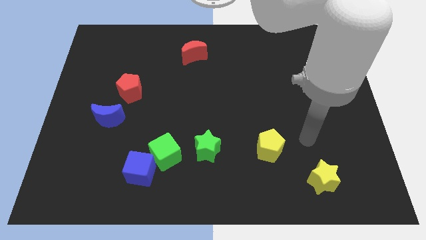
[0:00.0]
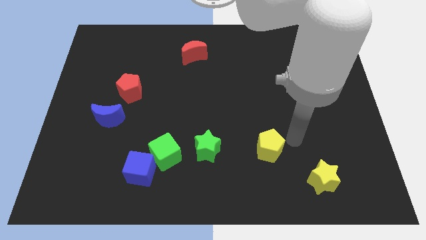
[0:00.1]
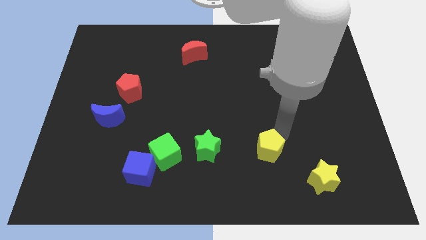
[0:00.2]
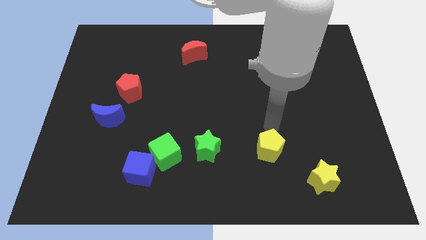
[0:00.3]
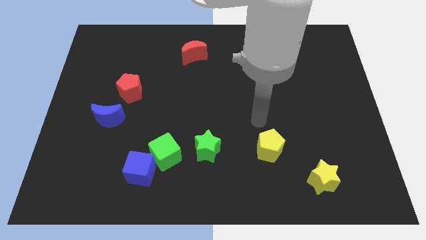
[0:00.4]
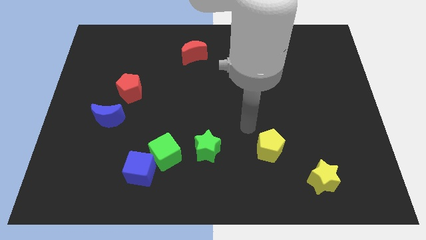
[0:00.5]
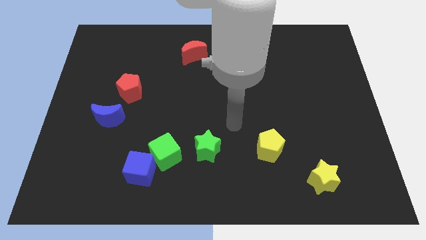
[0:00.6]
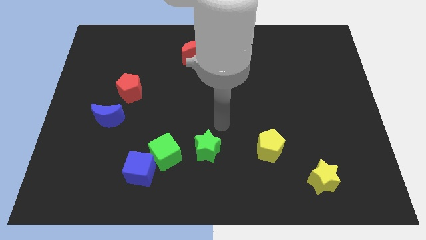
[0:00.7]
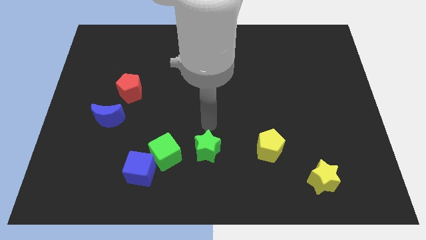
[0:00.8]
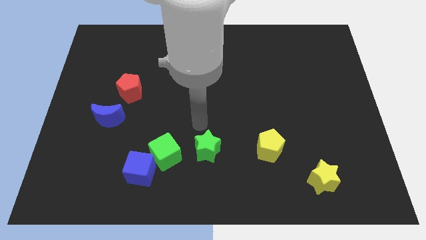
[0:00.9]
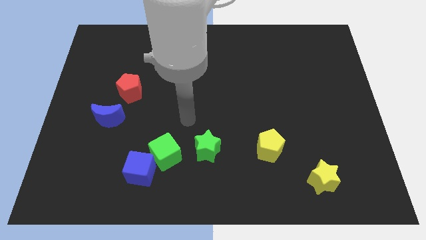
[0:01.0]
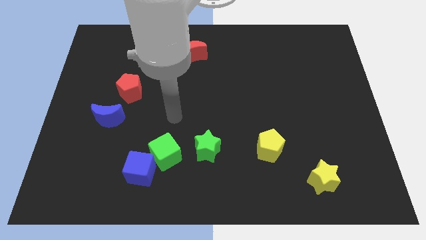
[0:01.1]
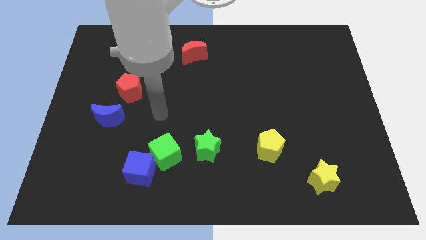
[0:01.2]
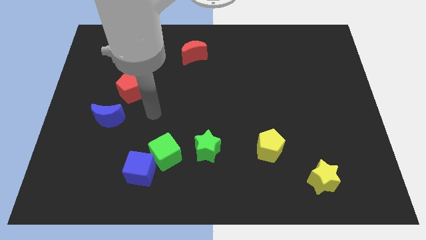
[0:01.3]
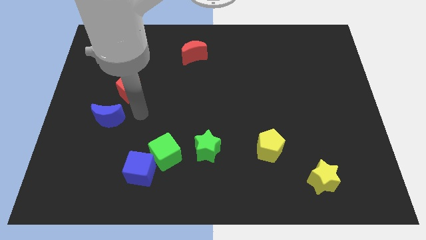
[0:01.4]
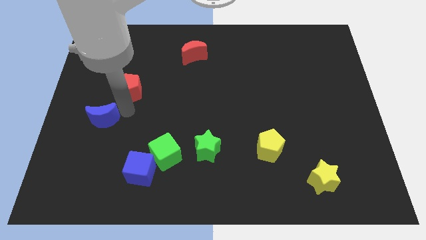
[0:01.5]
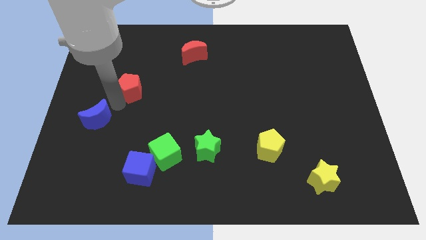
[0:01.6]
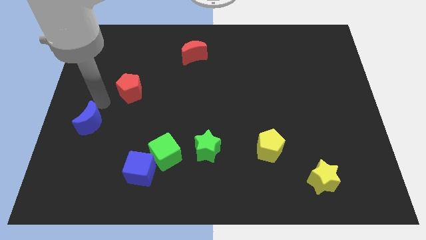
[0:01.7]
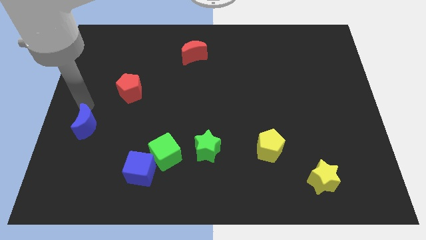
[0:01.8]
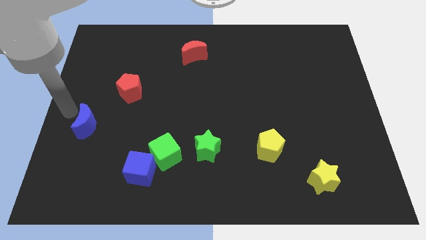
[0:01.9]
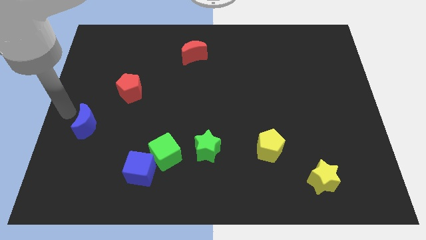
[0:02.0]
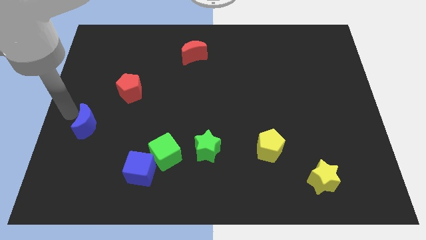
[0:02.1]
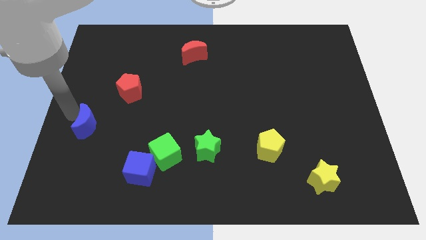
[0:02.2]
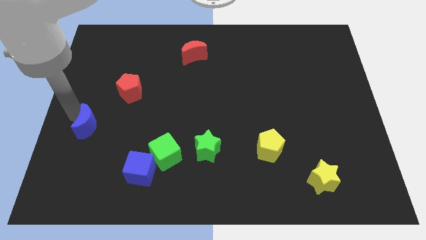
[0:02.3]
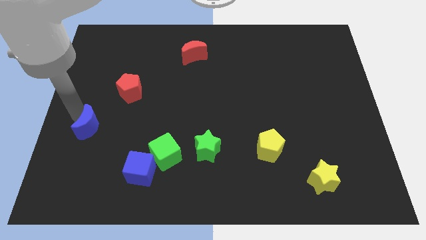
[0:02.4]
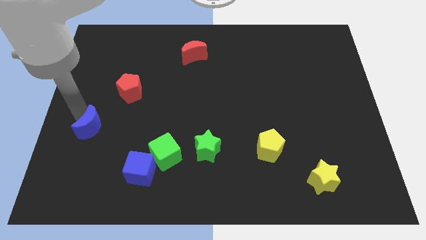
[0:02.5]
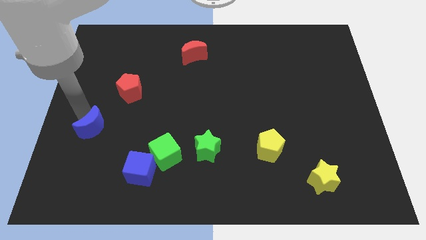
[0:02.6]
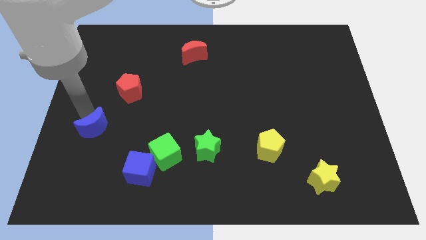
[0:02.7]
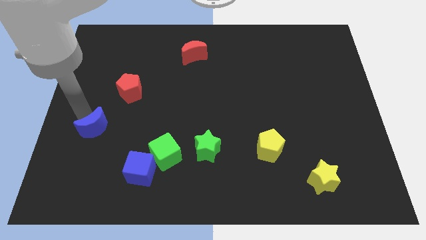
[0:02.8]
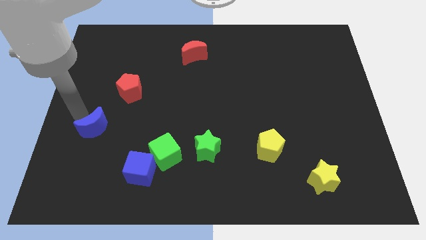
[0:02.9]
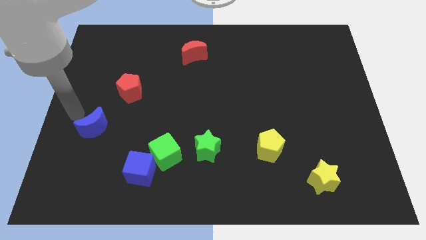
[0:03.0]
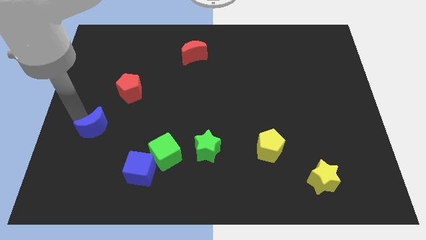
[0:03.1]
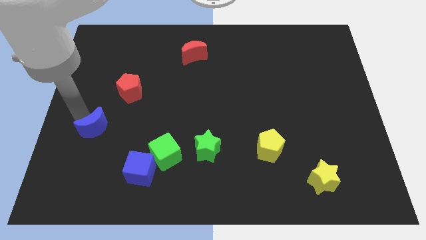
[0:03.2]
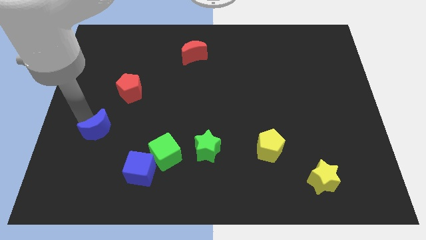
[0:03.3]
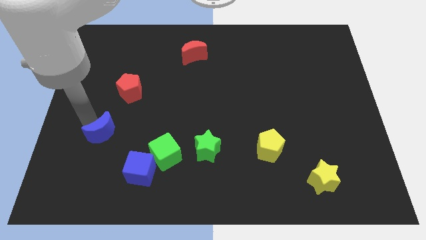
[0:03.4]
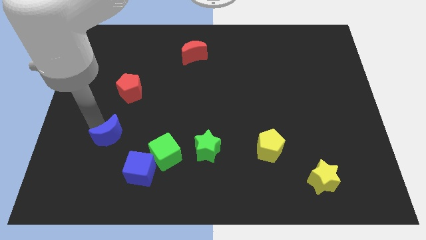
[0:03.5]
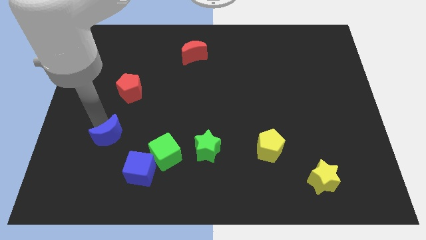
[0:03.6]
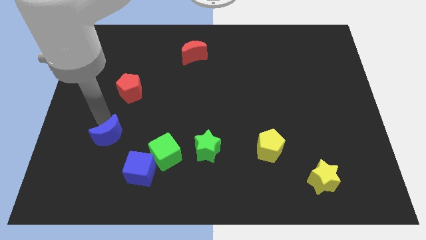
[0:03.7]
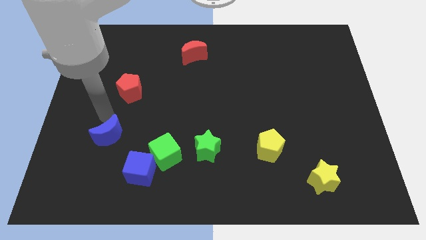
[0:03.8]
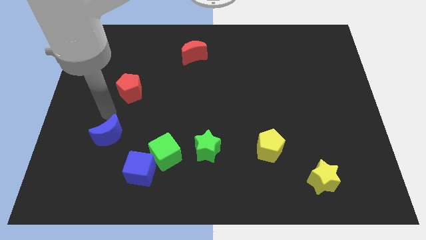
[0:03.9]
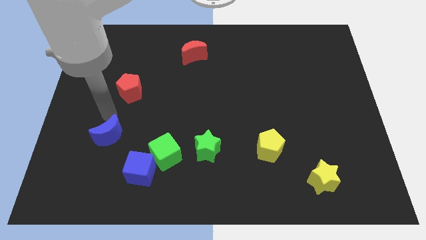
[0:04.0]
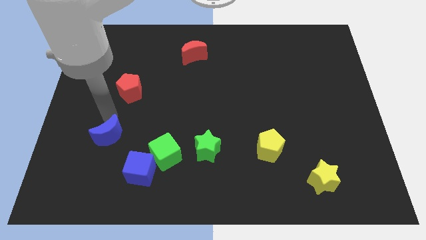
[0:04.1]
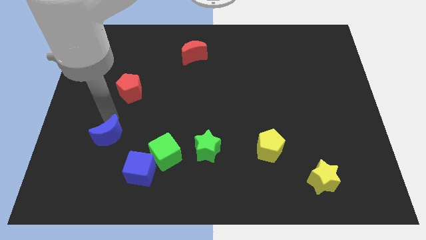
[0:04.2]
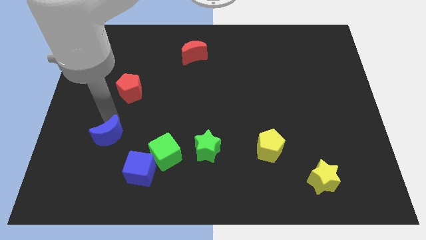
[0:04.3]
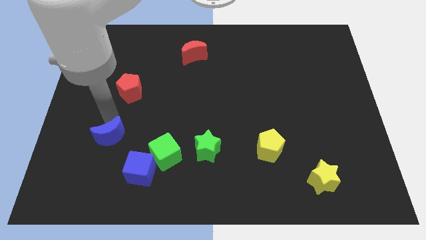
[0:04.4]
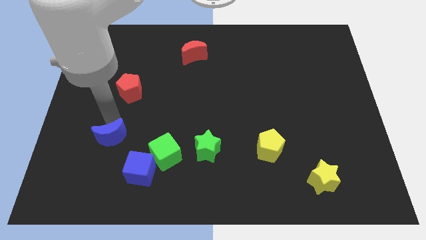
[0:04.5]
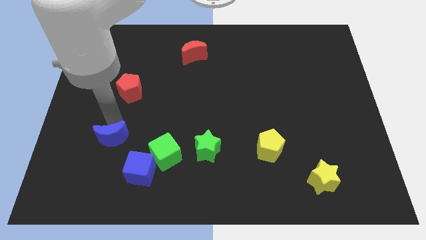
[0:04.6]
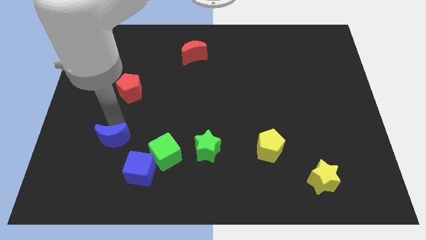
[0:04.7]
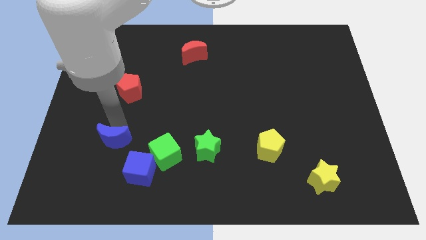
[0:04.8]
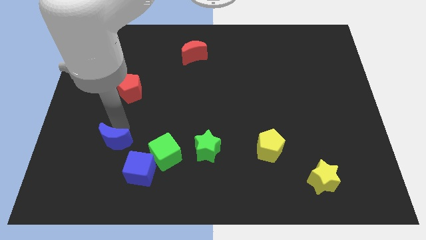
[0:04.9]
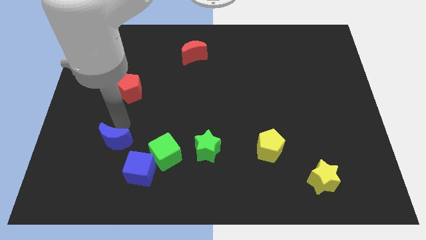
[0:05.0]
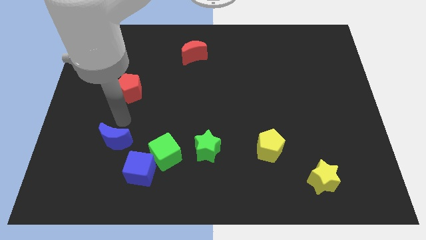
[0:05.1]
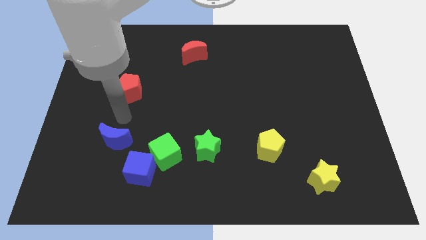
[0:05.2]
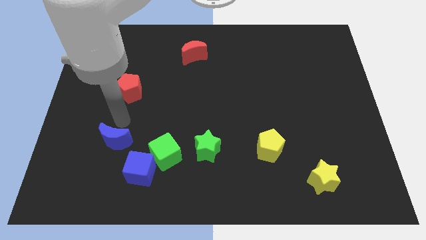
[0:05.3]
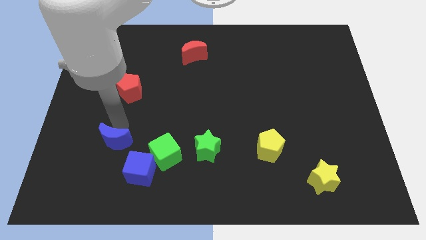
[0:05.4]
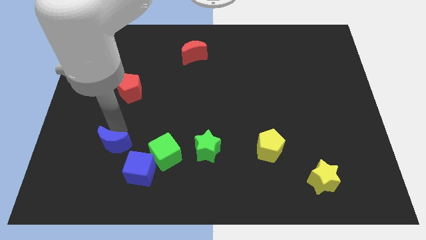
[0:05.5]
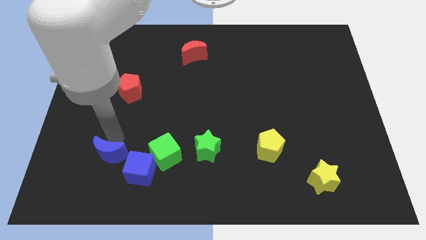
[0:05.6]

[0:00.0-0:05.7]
push the blue moon a little bit diagonally down and to the right

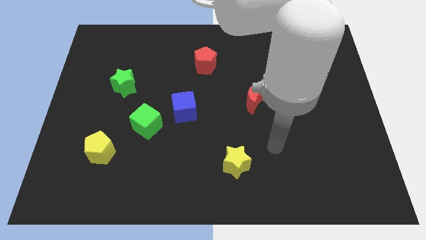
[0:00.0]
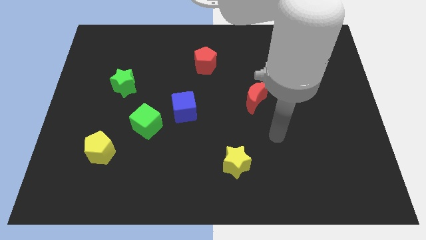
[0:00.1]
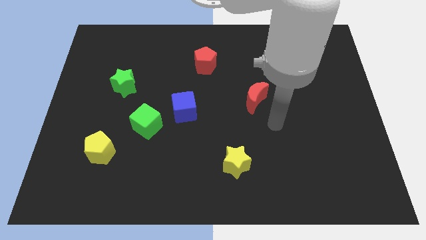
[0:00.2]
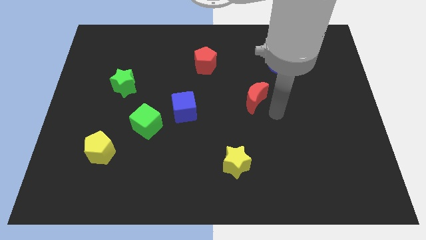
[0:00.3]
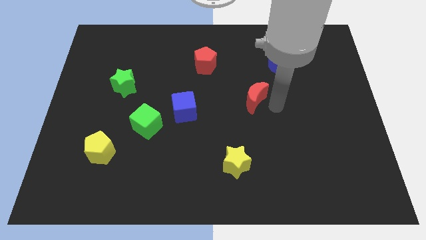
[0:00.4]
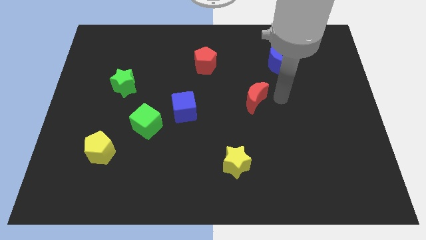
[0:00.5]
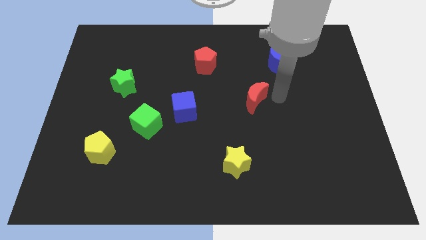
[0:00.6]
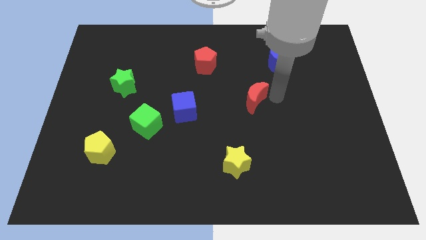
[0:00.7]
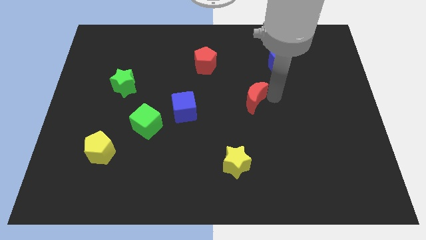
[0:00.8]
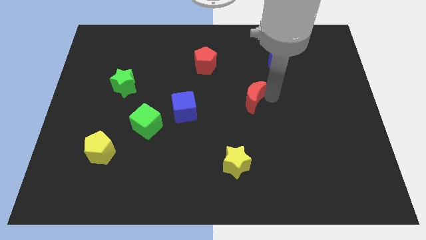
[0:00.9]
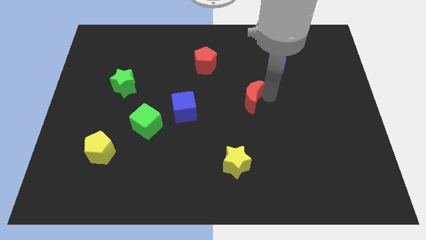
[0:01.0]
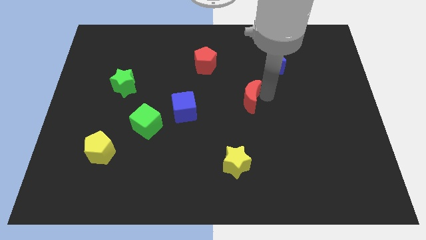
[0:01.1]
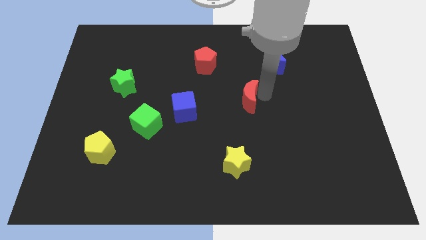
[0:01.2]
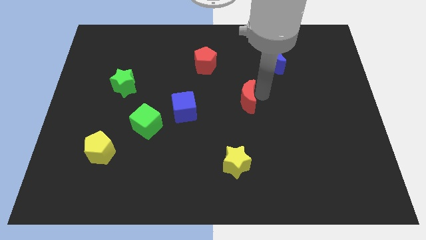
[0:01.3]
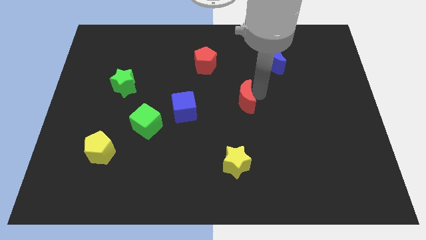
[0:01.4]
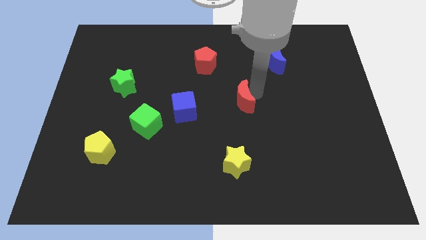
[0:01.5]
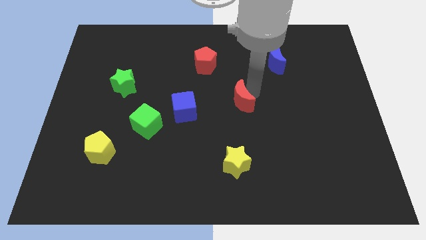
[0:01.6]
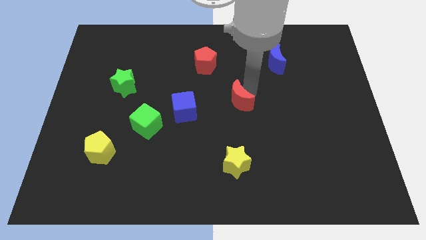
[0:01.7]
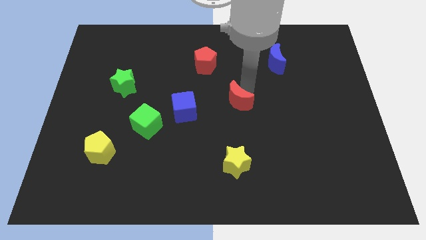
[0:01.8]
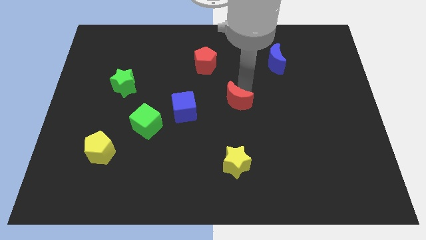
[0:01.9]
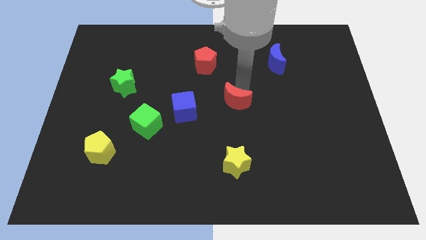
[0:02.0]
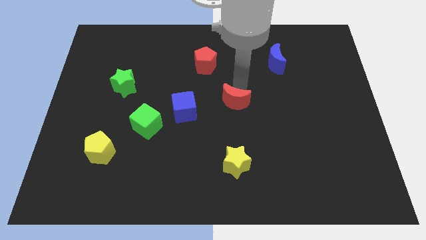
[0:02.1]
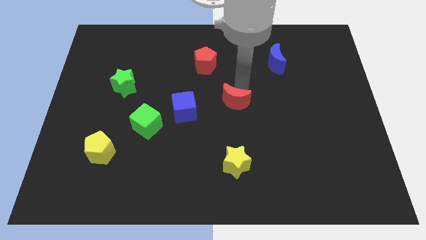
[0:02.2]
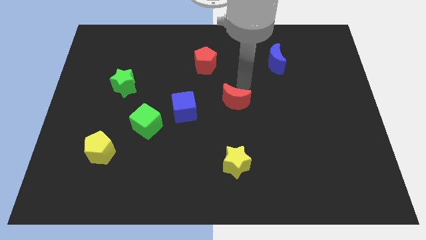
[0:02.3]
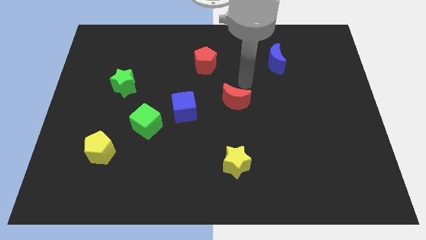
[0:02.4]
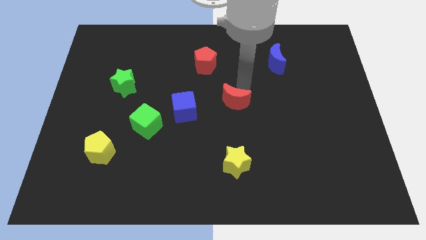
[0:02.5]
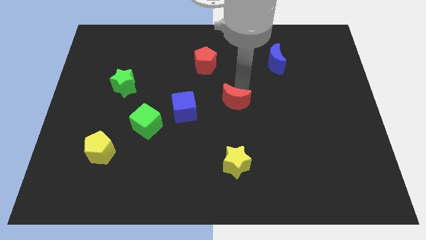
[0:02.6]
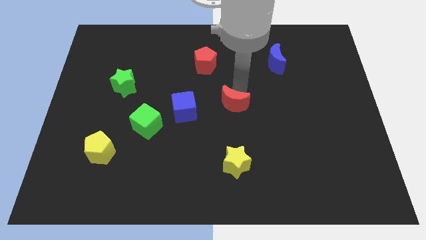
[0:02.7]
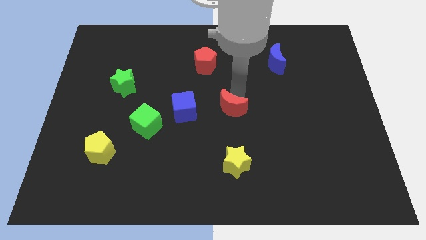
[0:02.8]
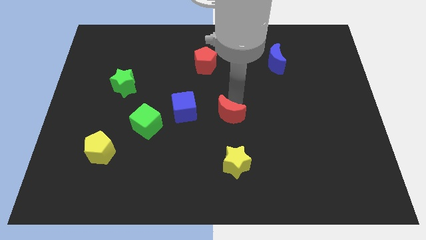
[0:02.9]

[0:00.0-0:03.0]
slide the red moon a little bit down and to the left
